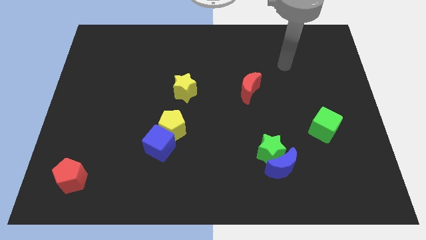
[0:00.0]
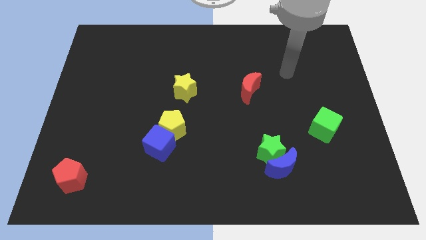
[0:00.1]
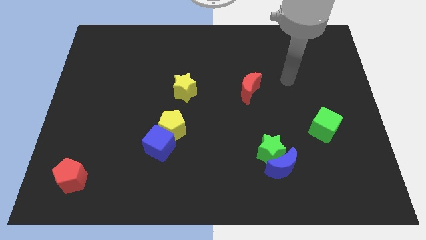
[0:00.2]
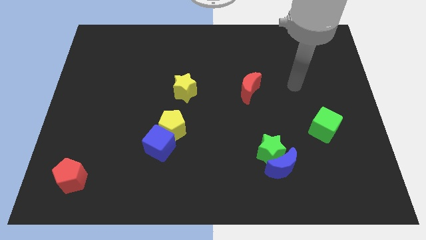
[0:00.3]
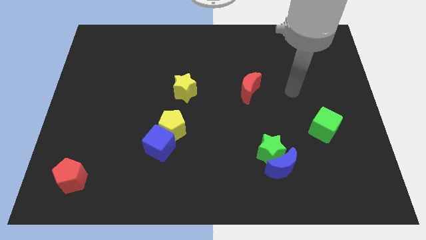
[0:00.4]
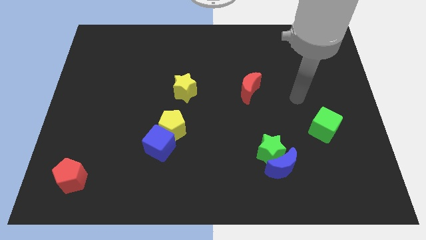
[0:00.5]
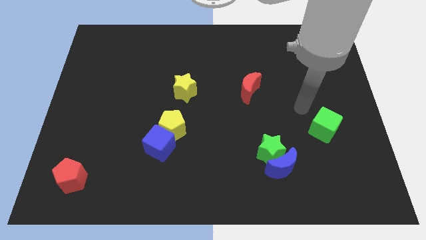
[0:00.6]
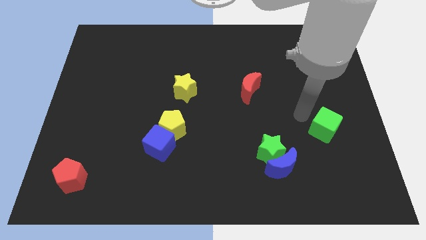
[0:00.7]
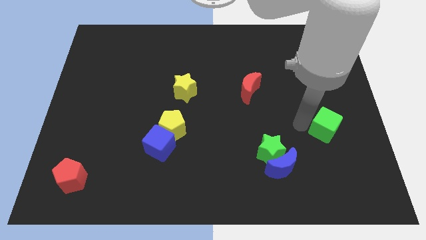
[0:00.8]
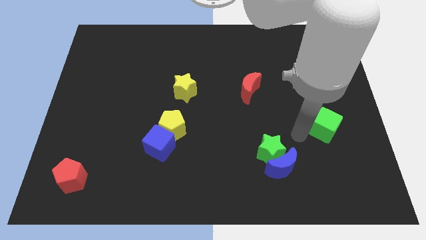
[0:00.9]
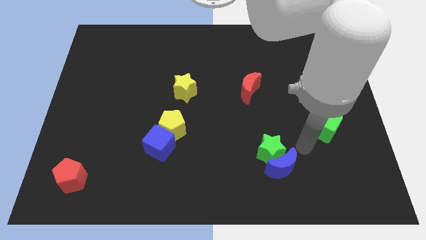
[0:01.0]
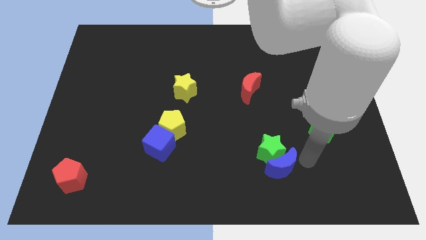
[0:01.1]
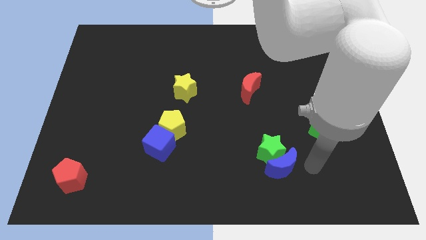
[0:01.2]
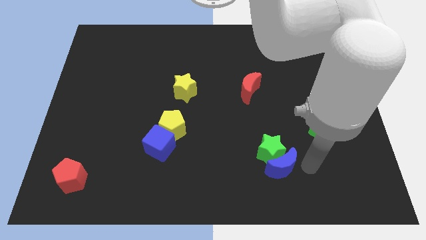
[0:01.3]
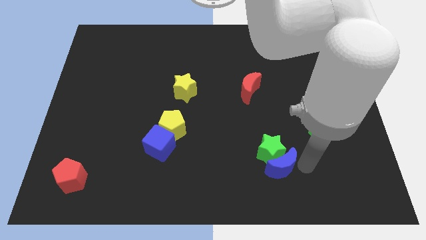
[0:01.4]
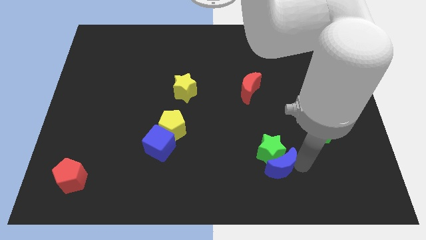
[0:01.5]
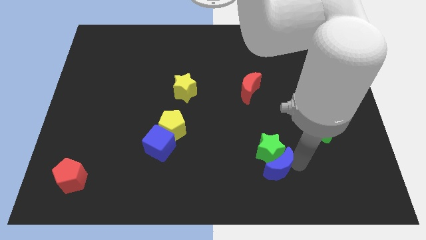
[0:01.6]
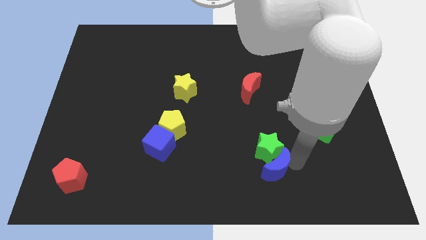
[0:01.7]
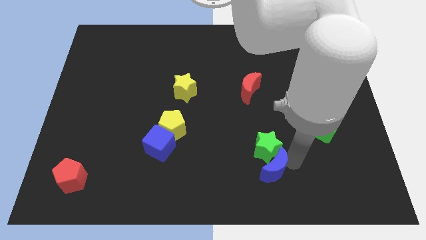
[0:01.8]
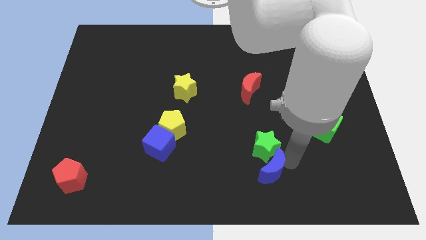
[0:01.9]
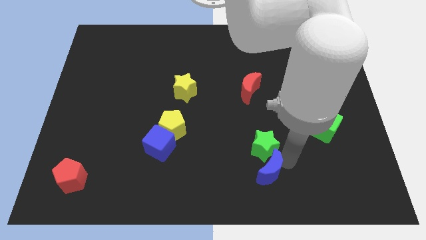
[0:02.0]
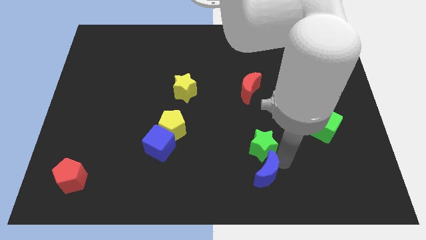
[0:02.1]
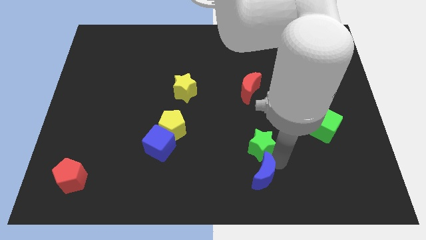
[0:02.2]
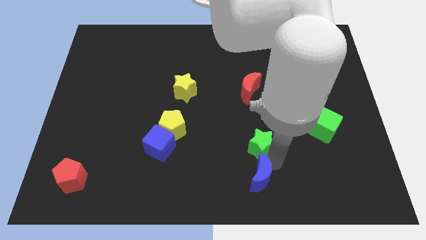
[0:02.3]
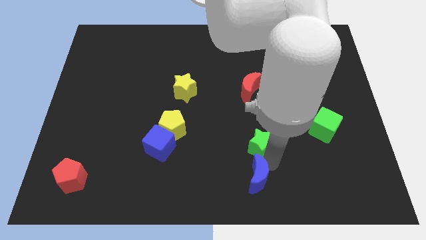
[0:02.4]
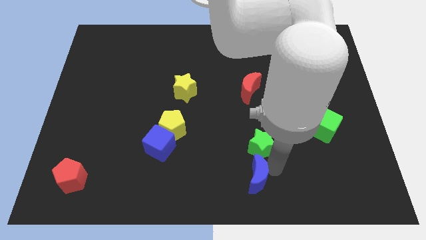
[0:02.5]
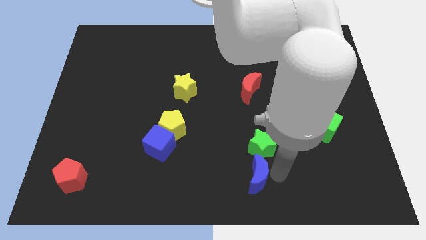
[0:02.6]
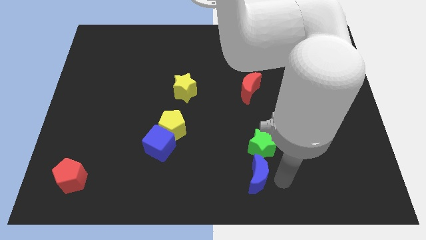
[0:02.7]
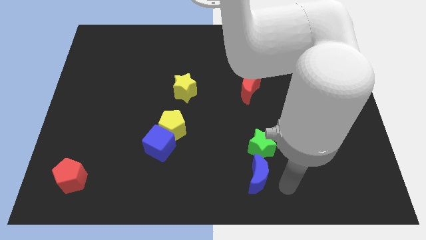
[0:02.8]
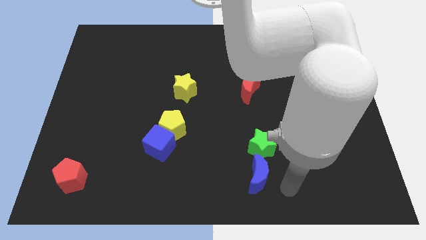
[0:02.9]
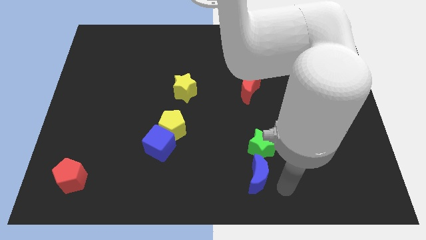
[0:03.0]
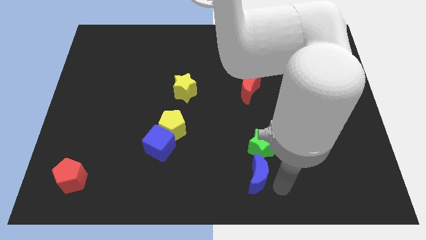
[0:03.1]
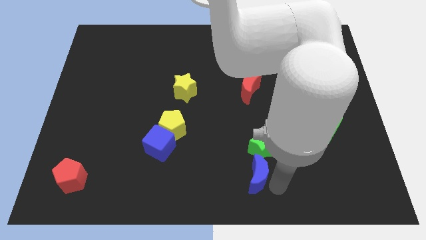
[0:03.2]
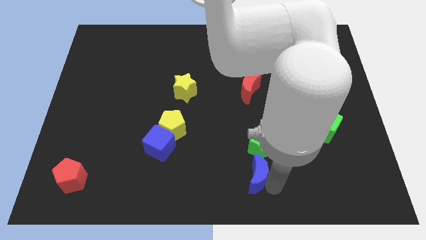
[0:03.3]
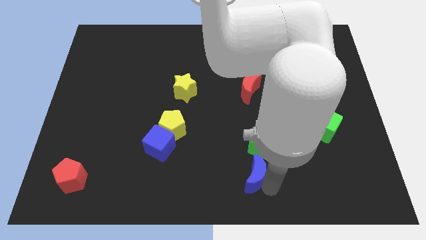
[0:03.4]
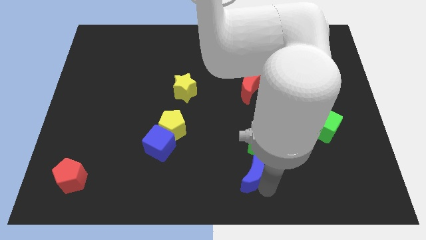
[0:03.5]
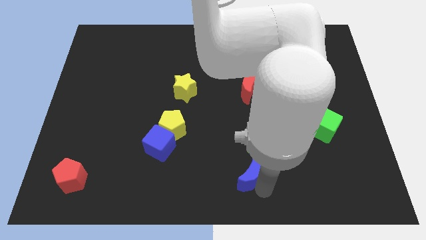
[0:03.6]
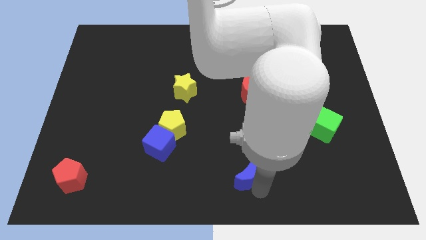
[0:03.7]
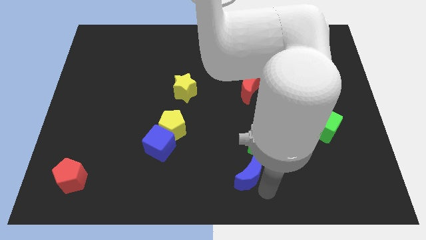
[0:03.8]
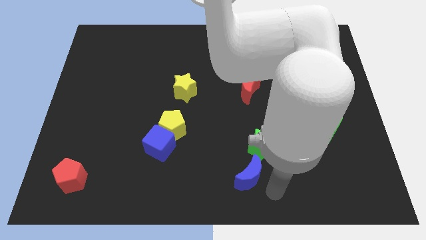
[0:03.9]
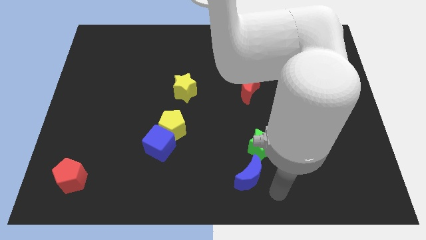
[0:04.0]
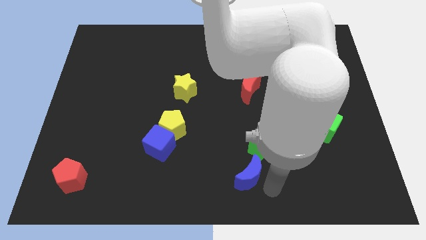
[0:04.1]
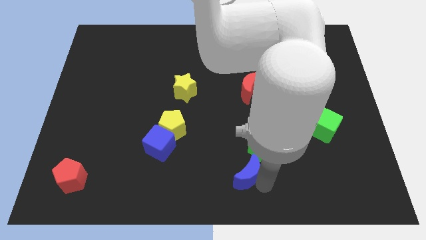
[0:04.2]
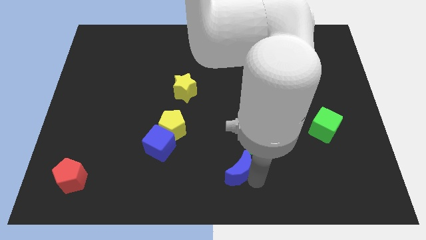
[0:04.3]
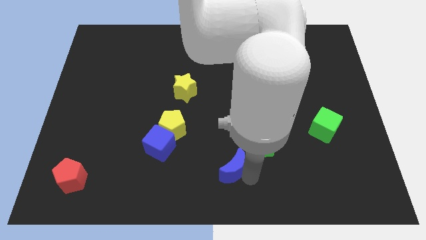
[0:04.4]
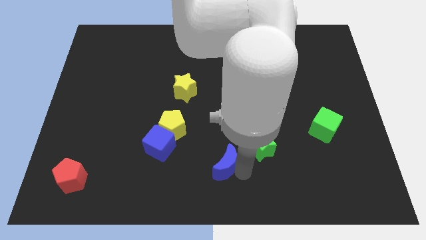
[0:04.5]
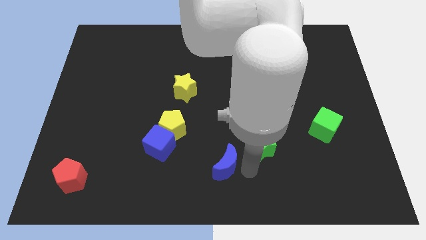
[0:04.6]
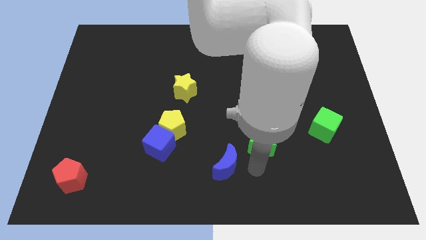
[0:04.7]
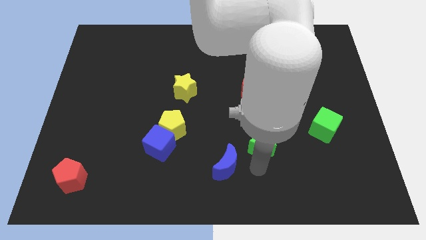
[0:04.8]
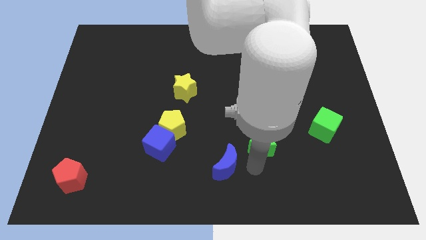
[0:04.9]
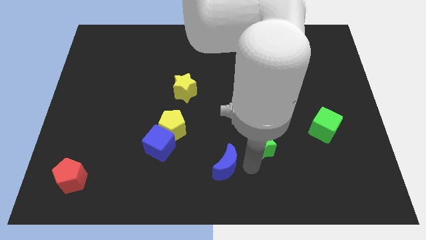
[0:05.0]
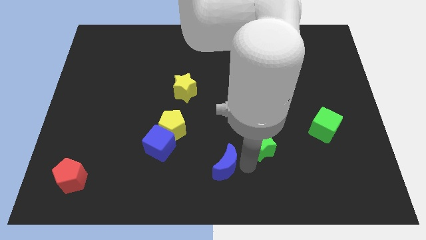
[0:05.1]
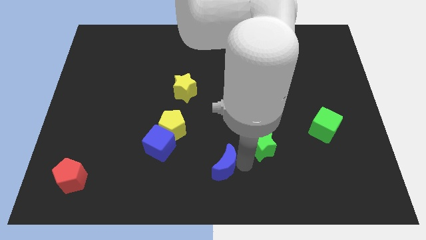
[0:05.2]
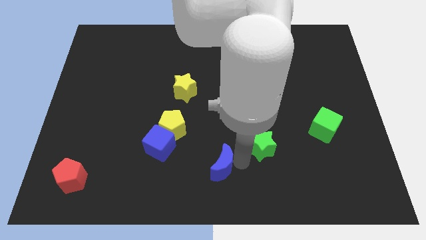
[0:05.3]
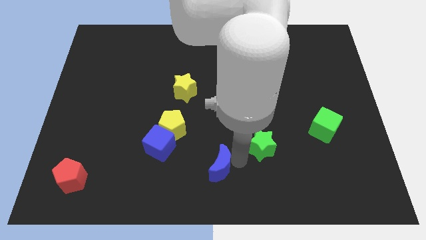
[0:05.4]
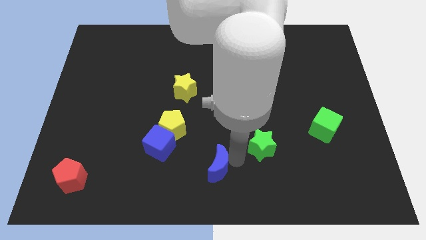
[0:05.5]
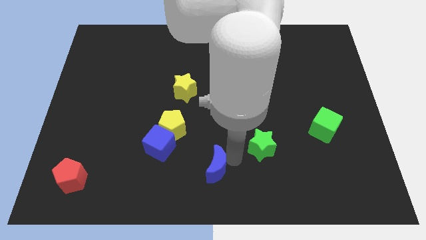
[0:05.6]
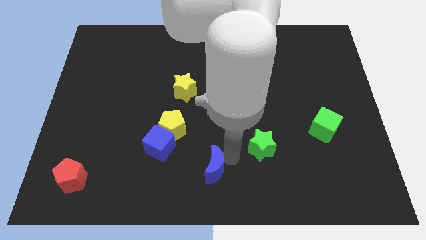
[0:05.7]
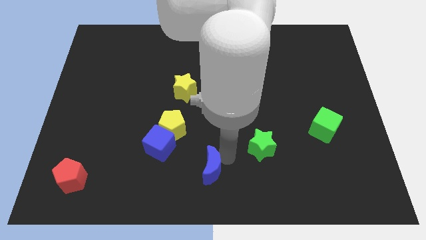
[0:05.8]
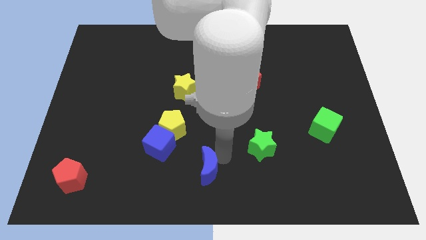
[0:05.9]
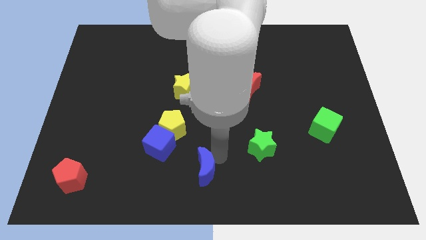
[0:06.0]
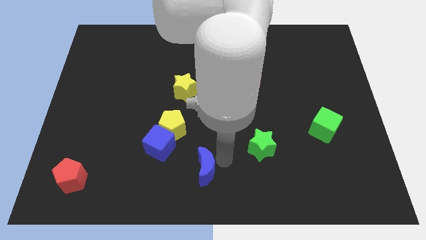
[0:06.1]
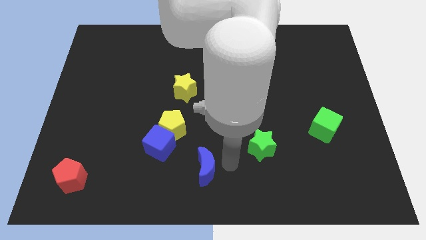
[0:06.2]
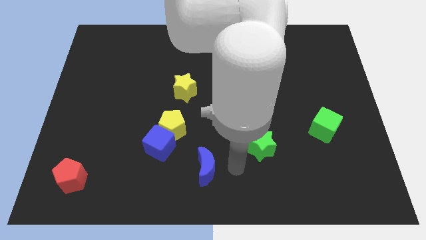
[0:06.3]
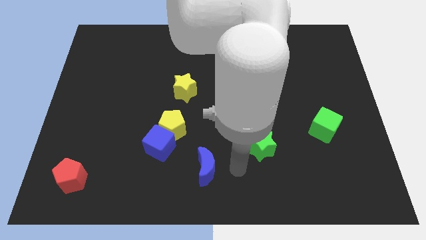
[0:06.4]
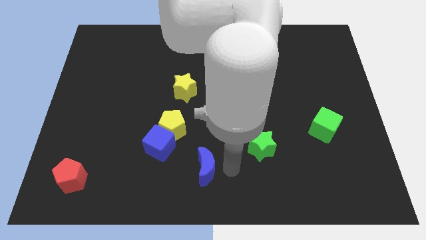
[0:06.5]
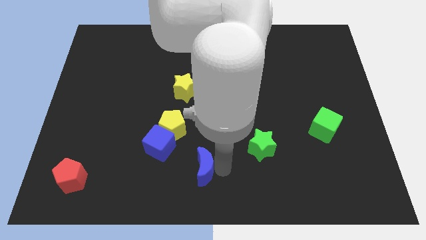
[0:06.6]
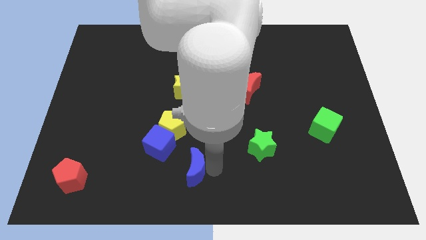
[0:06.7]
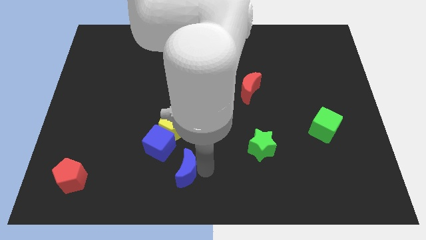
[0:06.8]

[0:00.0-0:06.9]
move the blue moon left

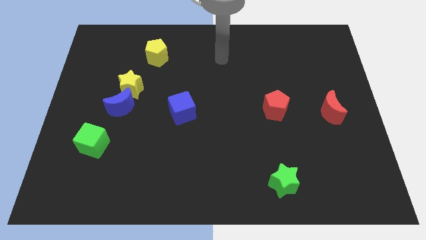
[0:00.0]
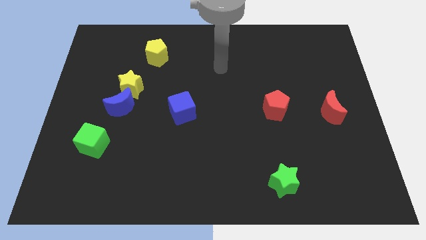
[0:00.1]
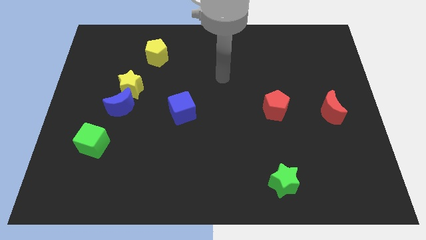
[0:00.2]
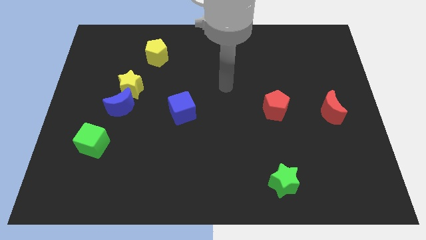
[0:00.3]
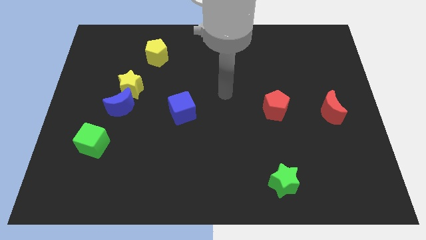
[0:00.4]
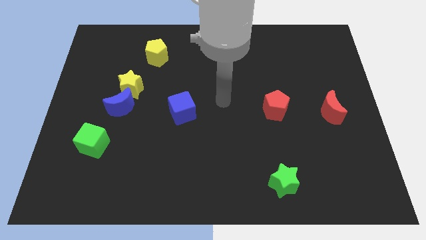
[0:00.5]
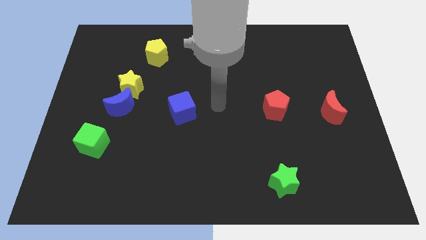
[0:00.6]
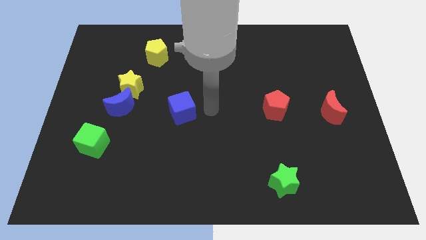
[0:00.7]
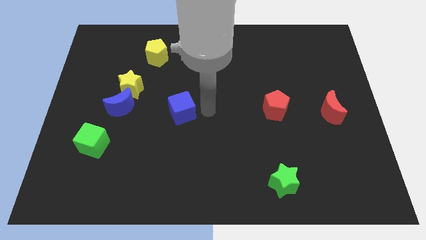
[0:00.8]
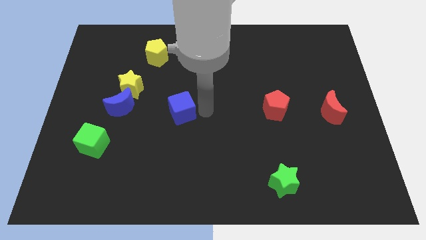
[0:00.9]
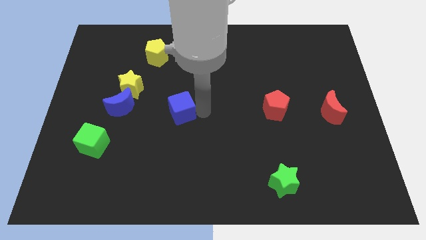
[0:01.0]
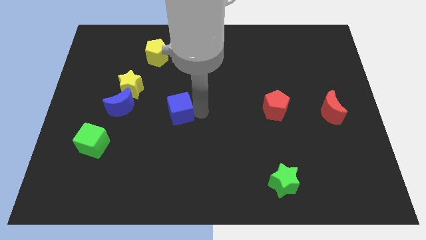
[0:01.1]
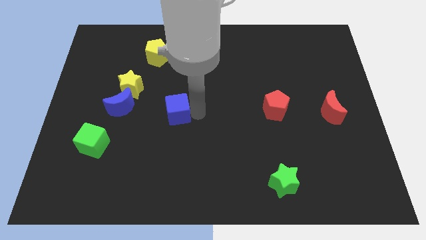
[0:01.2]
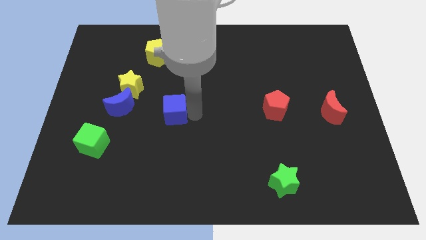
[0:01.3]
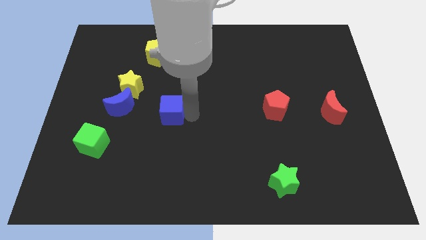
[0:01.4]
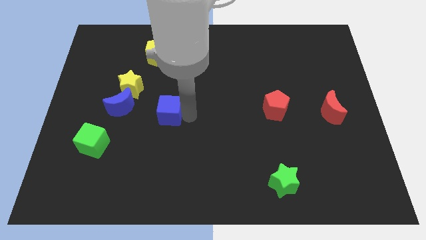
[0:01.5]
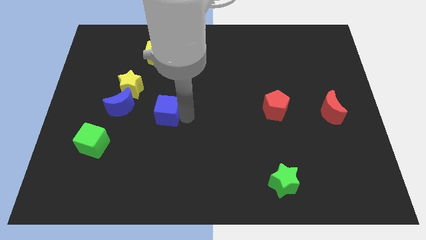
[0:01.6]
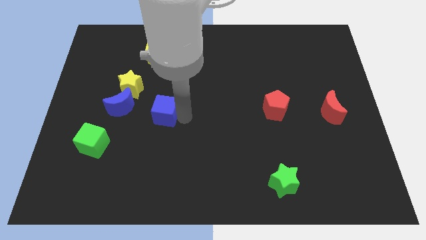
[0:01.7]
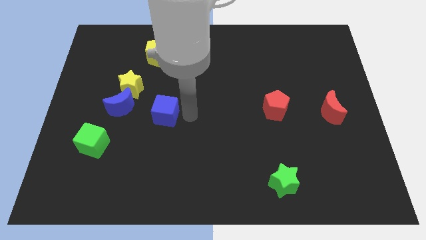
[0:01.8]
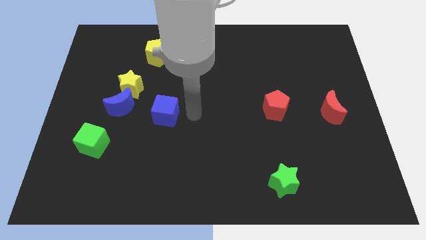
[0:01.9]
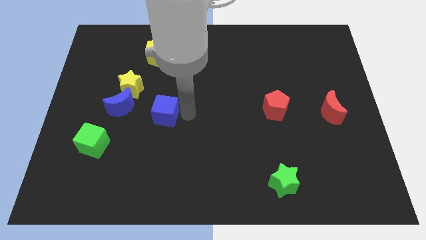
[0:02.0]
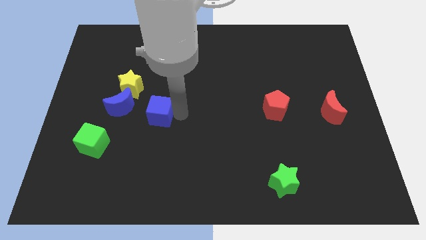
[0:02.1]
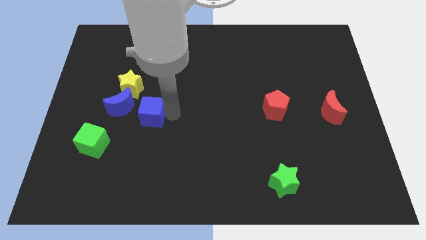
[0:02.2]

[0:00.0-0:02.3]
slightly slide the blue cube to the left
